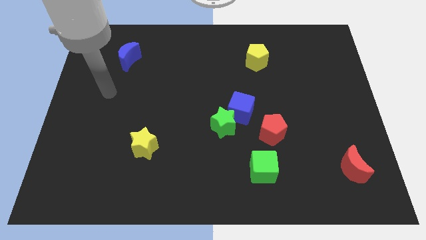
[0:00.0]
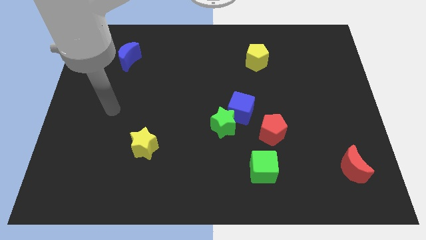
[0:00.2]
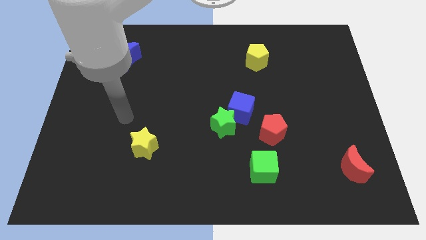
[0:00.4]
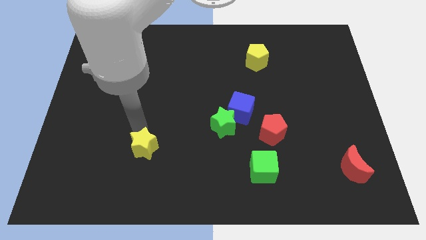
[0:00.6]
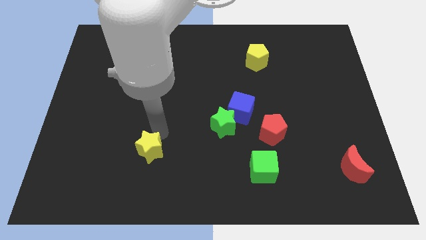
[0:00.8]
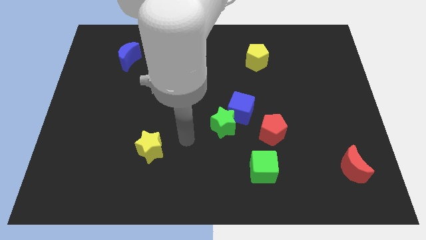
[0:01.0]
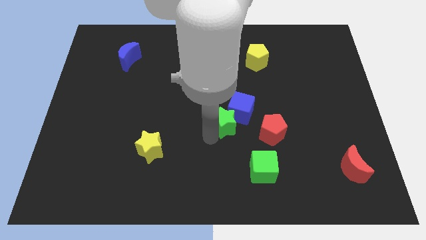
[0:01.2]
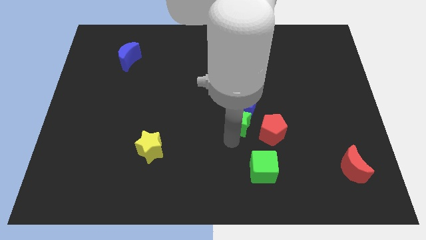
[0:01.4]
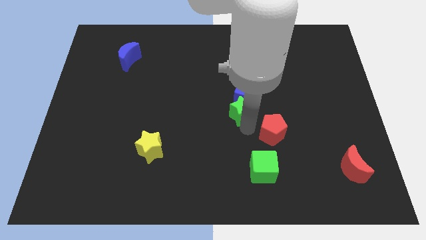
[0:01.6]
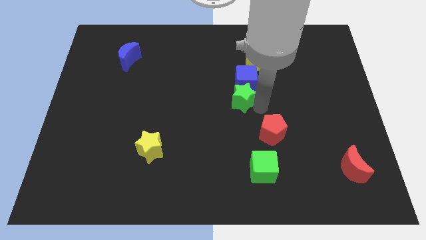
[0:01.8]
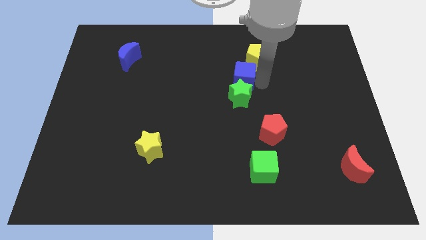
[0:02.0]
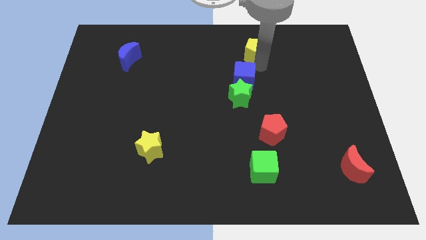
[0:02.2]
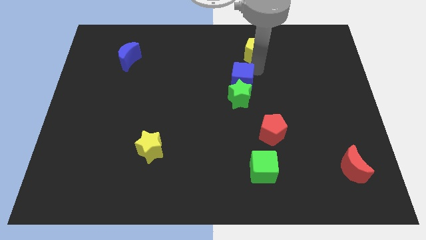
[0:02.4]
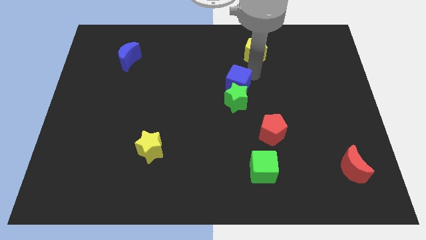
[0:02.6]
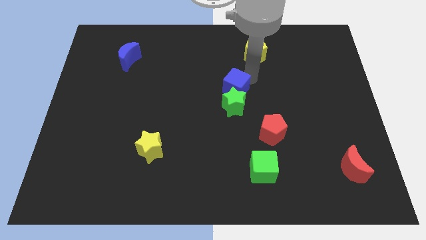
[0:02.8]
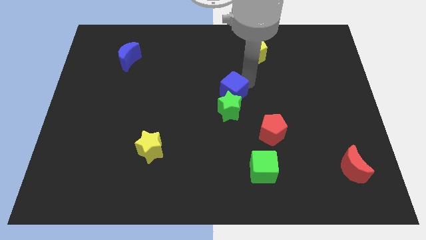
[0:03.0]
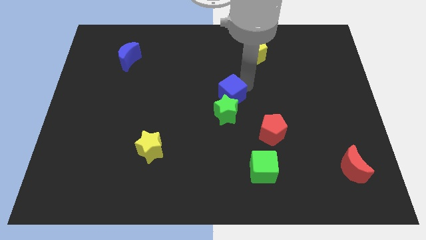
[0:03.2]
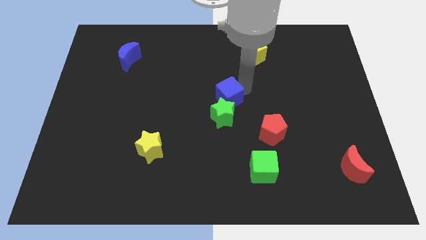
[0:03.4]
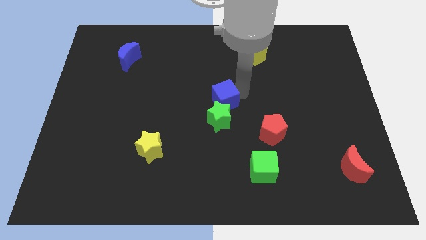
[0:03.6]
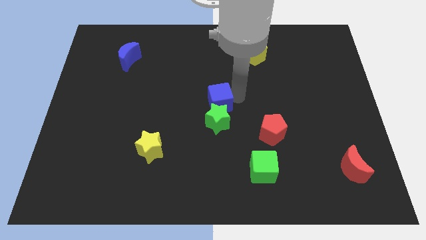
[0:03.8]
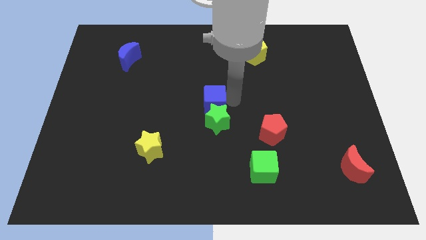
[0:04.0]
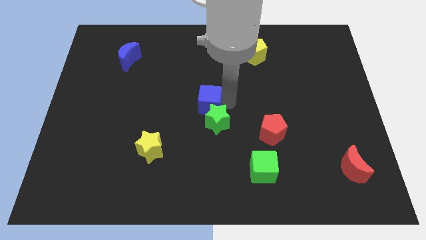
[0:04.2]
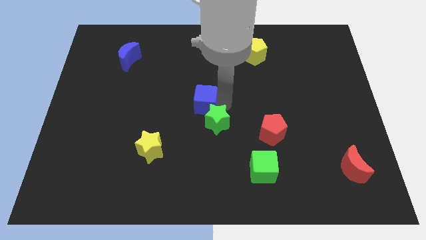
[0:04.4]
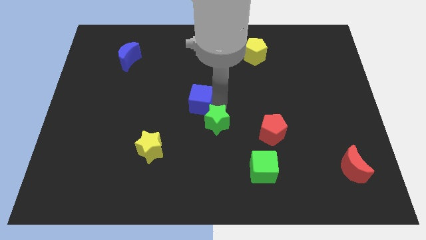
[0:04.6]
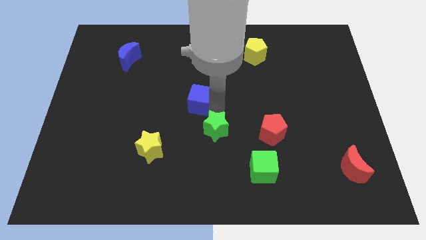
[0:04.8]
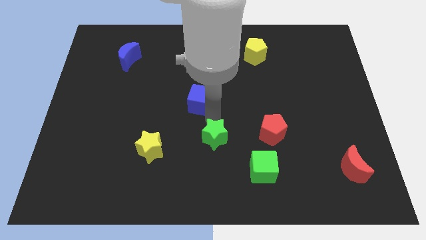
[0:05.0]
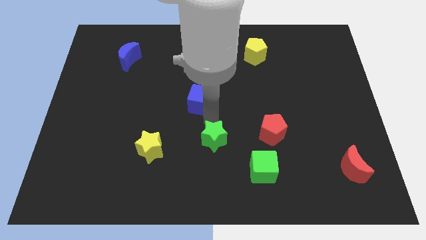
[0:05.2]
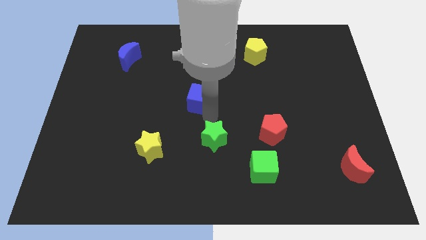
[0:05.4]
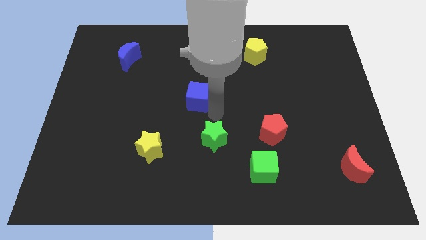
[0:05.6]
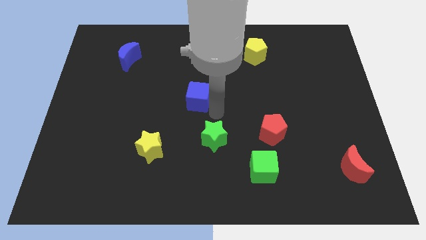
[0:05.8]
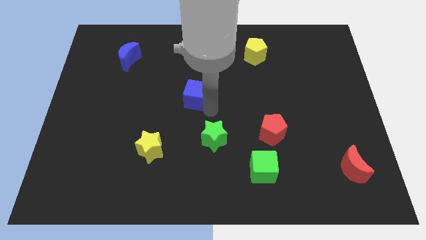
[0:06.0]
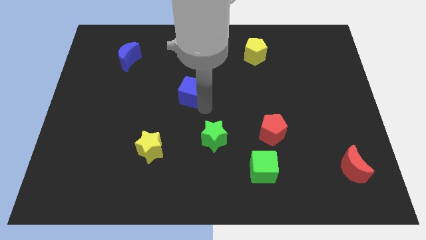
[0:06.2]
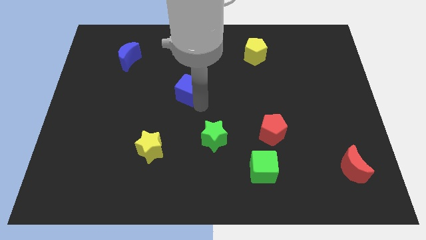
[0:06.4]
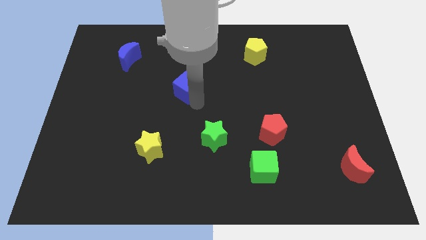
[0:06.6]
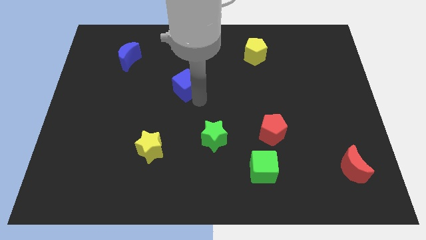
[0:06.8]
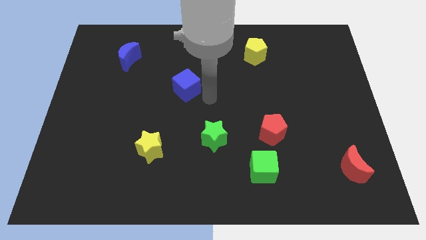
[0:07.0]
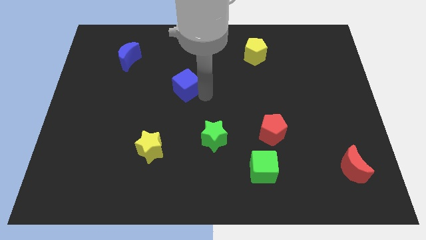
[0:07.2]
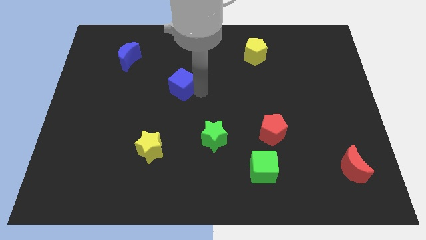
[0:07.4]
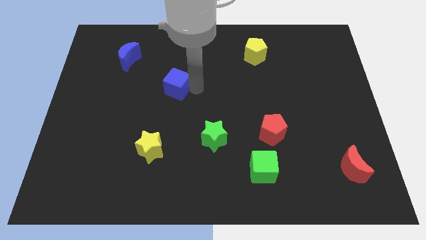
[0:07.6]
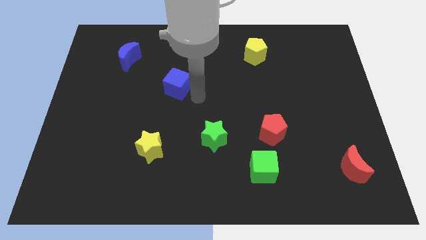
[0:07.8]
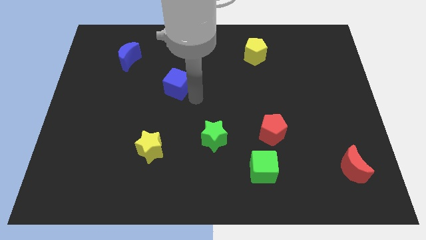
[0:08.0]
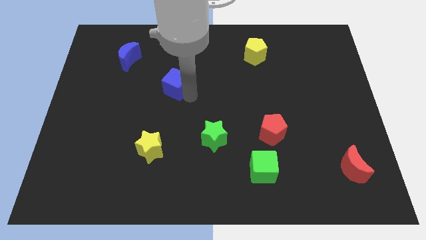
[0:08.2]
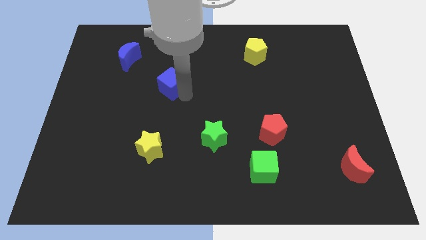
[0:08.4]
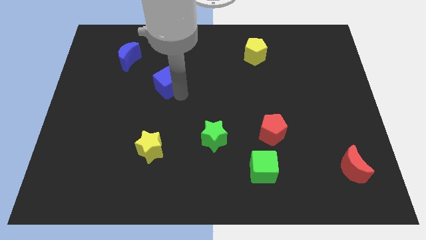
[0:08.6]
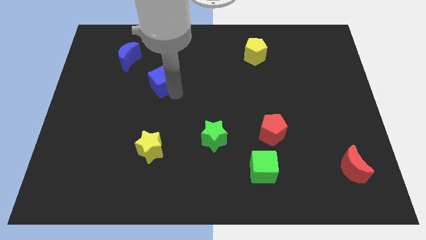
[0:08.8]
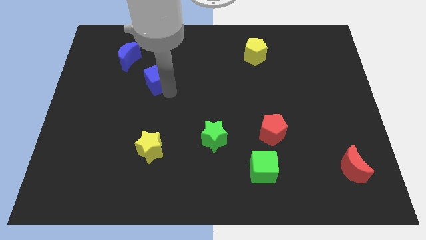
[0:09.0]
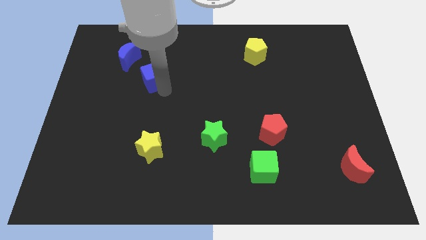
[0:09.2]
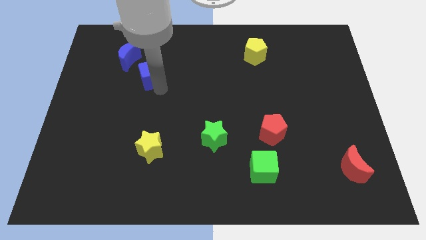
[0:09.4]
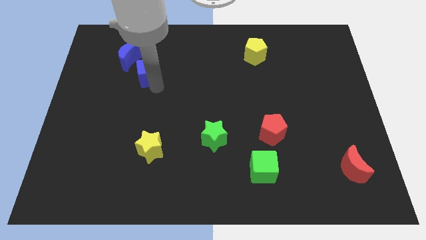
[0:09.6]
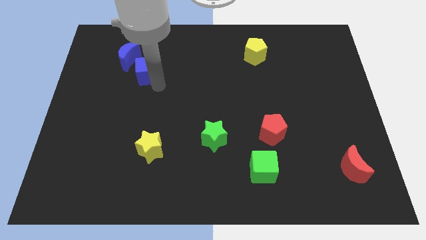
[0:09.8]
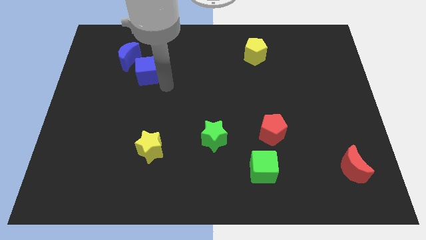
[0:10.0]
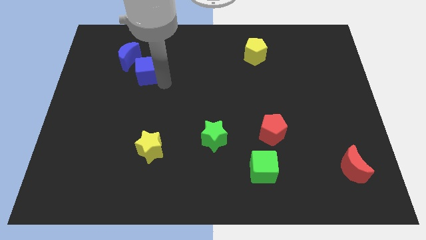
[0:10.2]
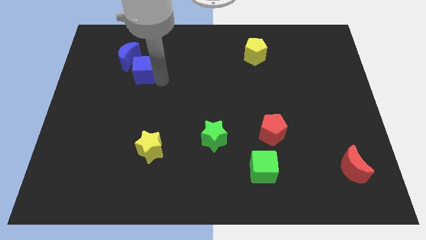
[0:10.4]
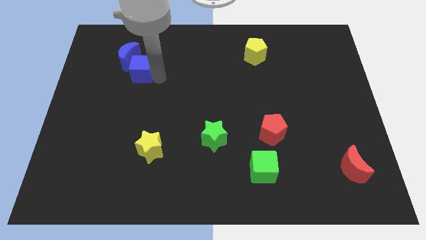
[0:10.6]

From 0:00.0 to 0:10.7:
slide the blue cube close to the blue moon

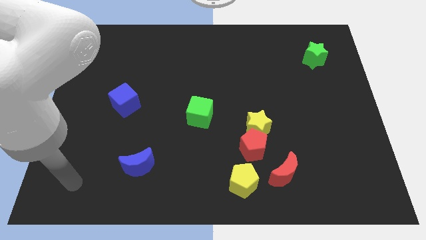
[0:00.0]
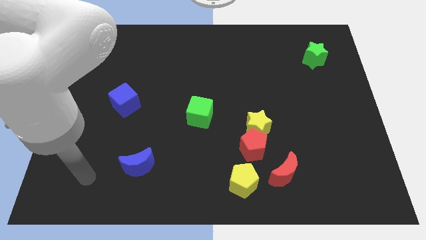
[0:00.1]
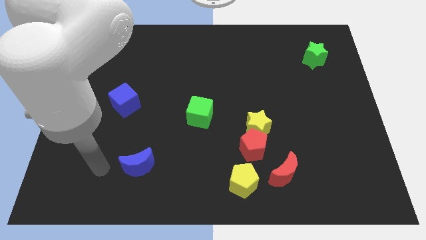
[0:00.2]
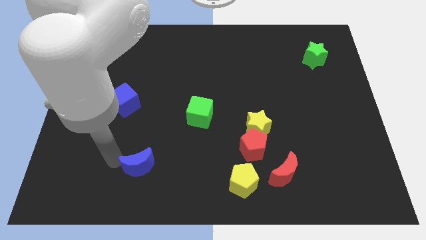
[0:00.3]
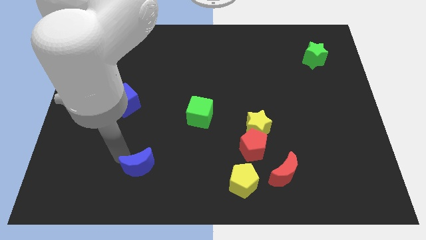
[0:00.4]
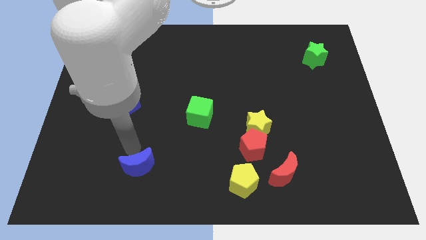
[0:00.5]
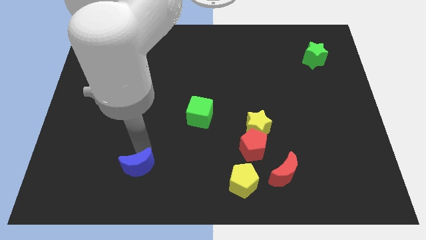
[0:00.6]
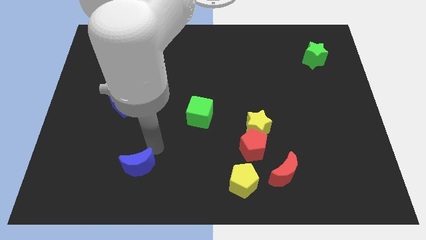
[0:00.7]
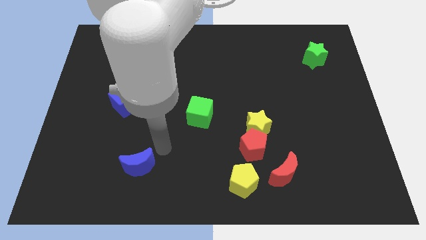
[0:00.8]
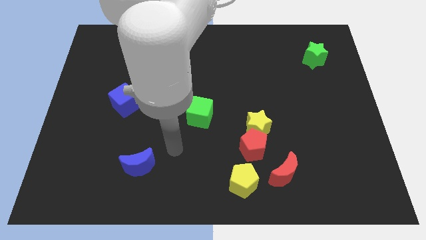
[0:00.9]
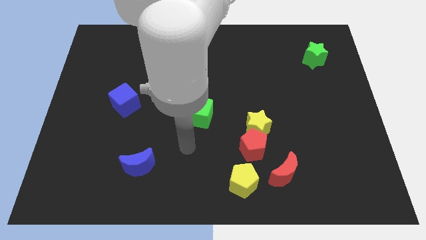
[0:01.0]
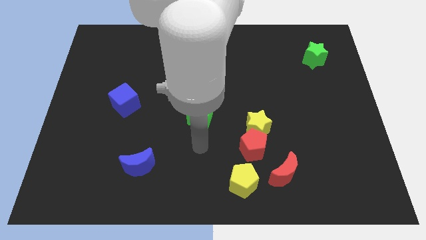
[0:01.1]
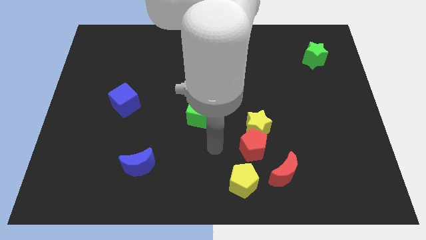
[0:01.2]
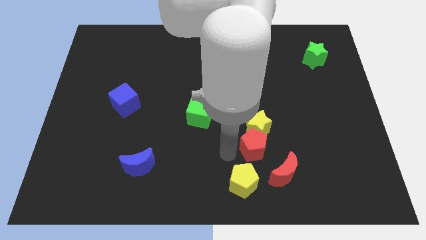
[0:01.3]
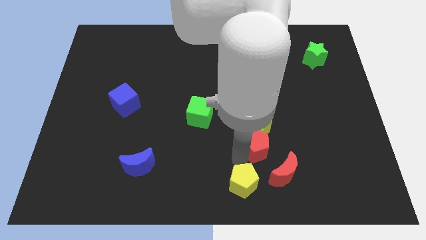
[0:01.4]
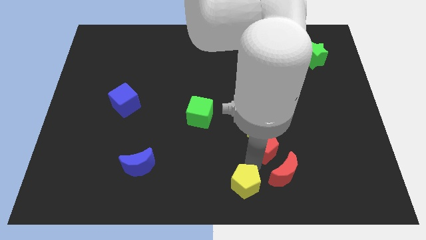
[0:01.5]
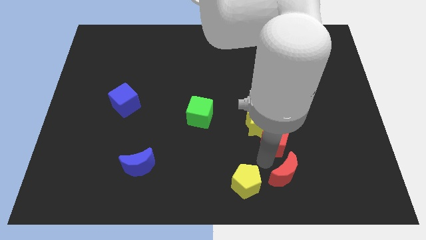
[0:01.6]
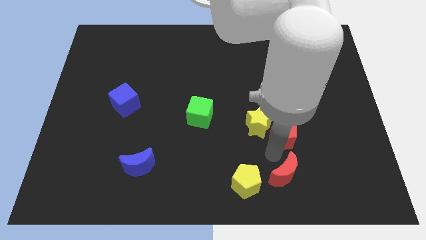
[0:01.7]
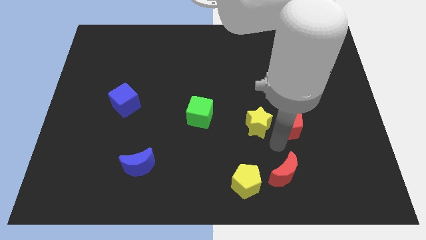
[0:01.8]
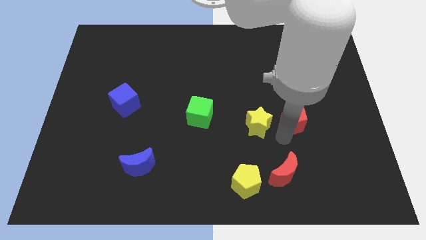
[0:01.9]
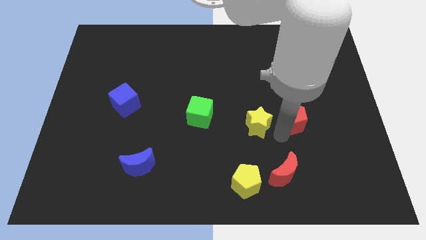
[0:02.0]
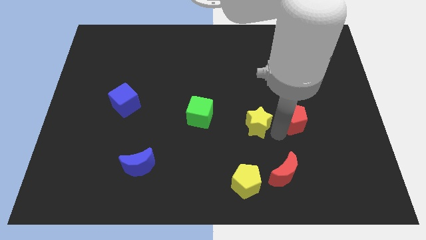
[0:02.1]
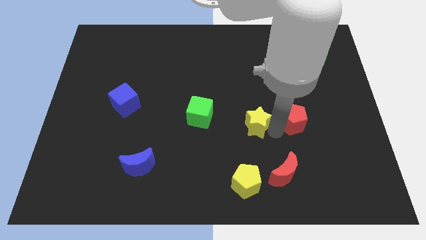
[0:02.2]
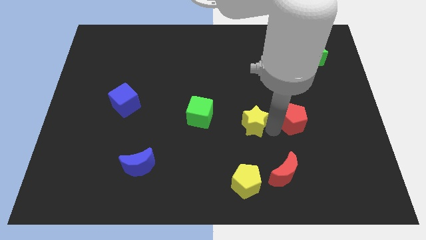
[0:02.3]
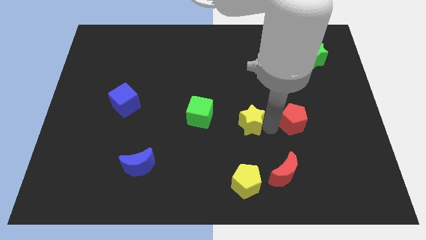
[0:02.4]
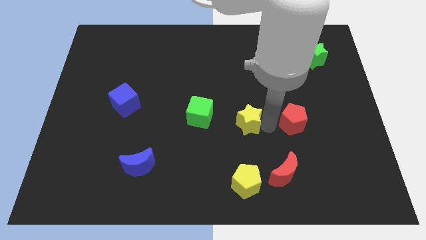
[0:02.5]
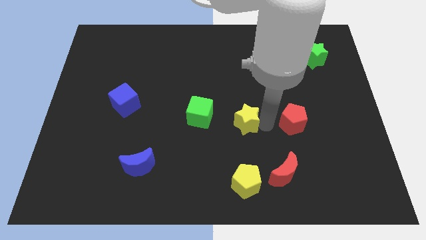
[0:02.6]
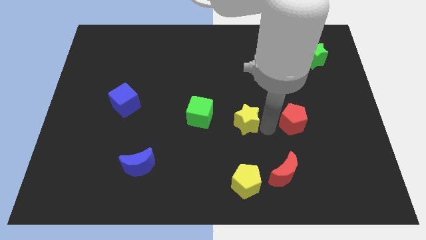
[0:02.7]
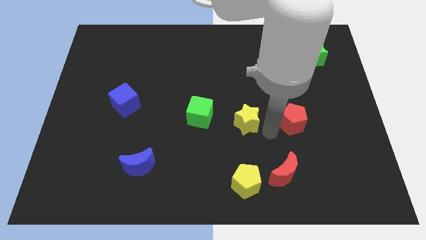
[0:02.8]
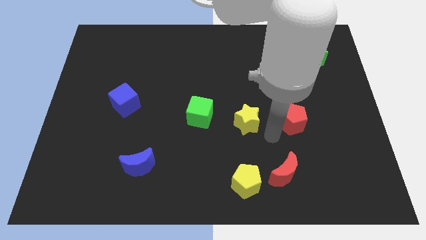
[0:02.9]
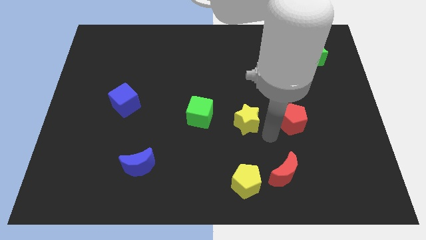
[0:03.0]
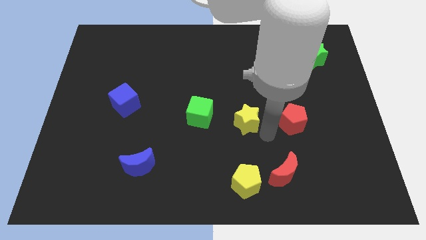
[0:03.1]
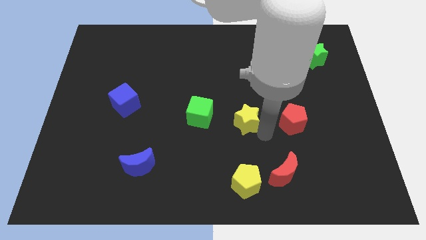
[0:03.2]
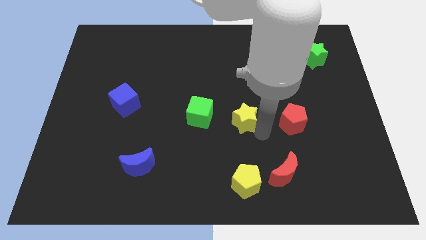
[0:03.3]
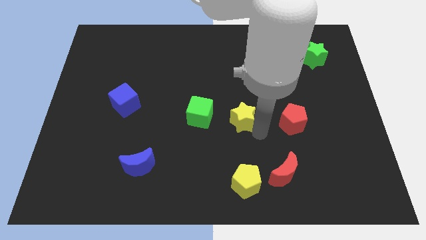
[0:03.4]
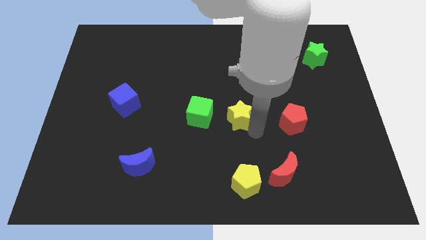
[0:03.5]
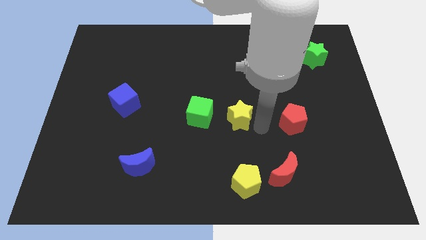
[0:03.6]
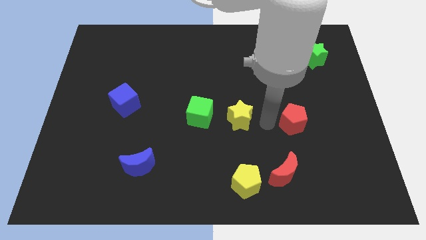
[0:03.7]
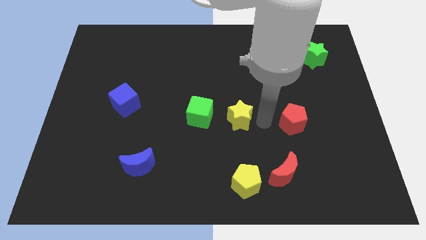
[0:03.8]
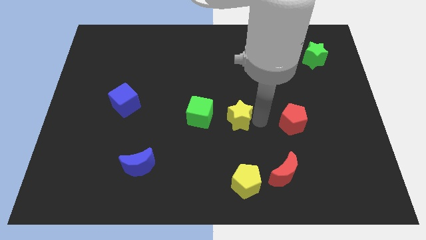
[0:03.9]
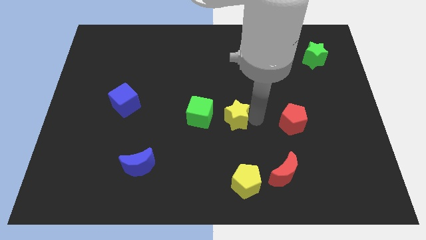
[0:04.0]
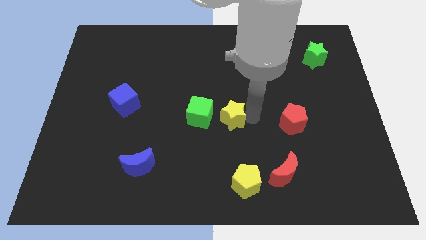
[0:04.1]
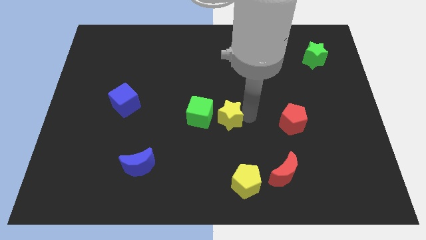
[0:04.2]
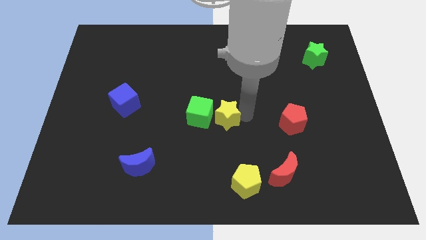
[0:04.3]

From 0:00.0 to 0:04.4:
put the yellow star towards the green cube
